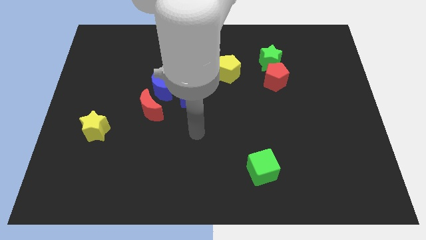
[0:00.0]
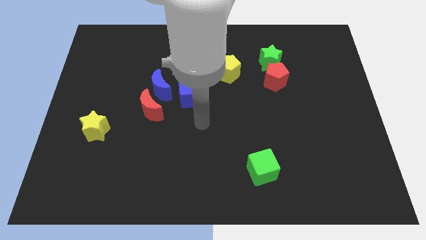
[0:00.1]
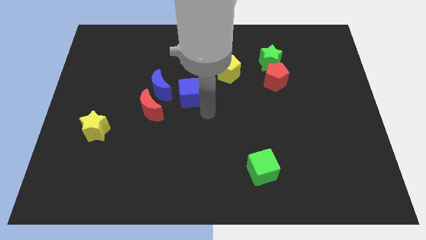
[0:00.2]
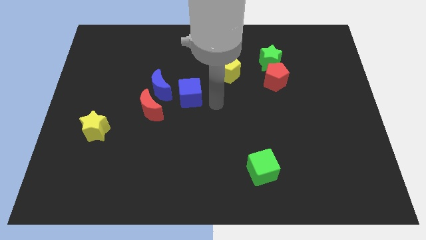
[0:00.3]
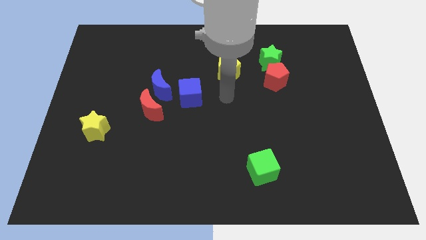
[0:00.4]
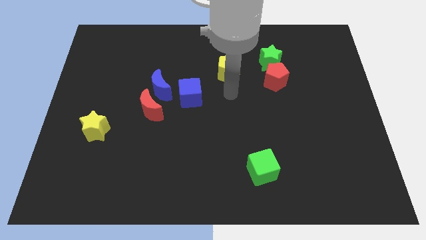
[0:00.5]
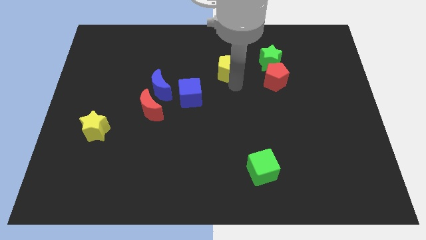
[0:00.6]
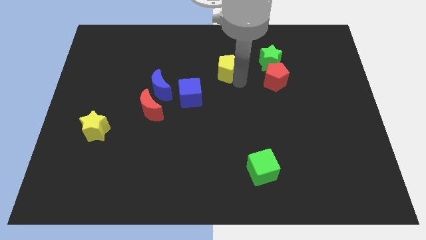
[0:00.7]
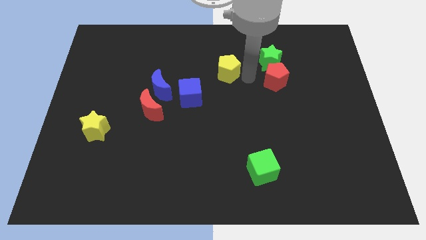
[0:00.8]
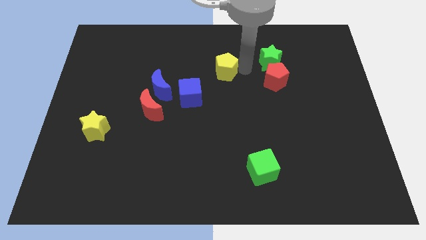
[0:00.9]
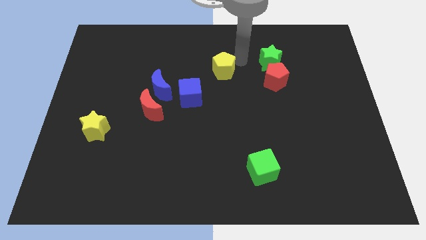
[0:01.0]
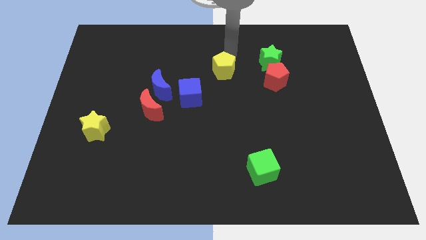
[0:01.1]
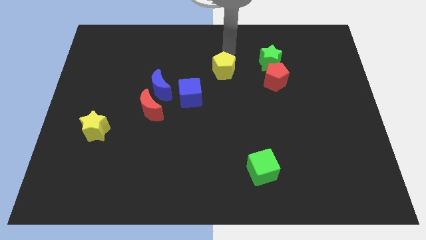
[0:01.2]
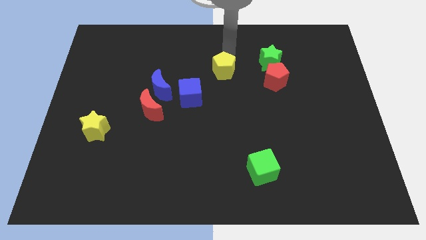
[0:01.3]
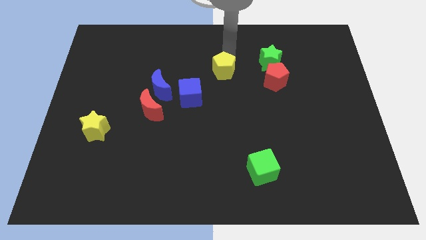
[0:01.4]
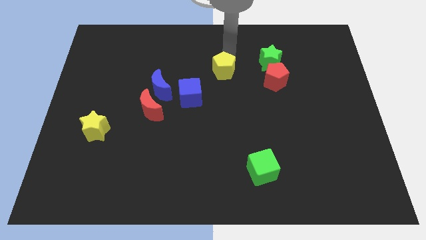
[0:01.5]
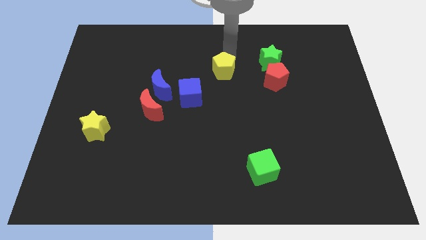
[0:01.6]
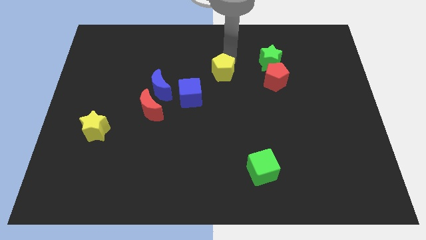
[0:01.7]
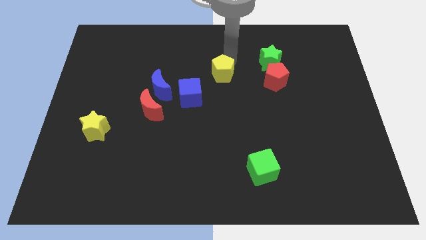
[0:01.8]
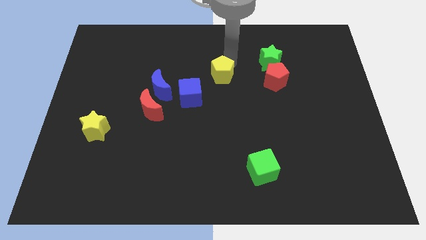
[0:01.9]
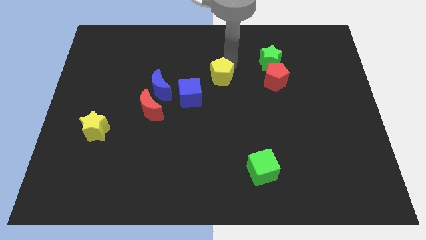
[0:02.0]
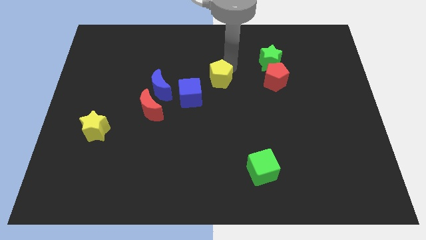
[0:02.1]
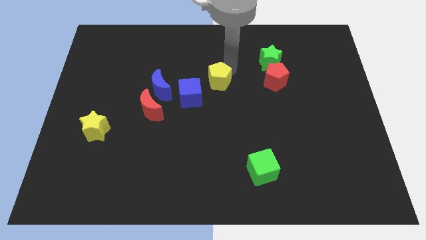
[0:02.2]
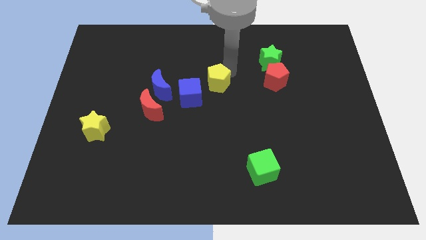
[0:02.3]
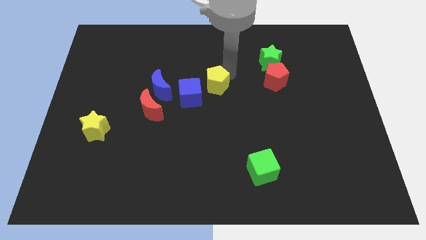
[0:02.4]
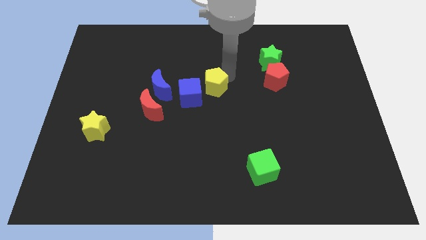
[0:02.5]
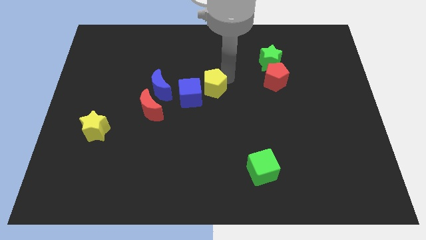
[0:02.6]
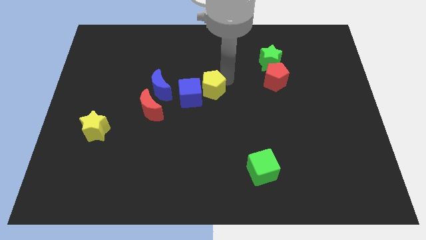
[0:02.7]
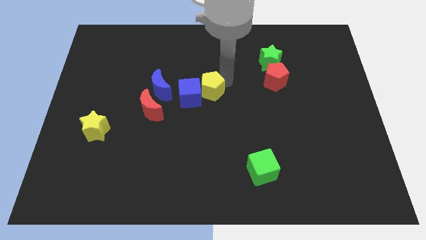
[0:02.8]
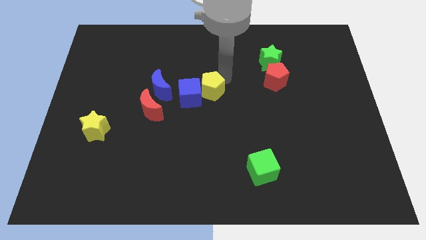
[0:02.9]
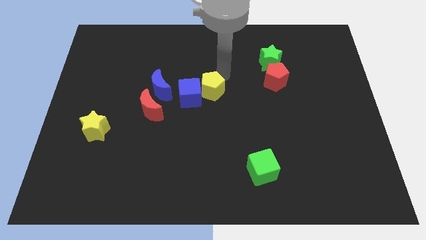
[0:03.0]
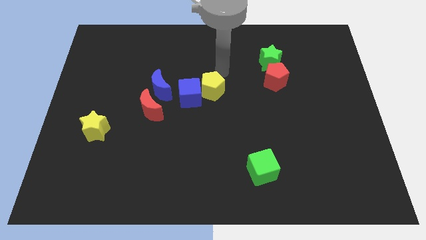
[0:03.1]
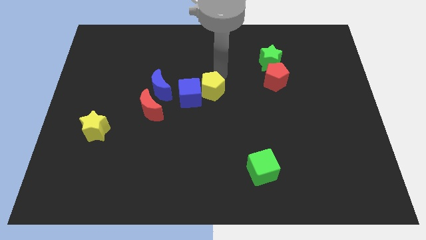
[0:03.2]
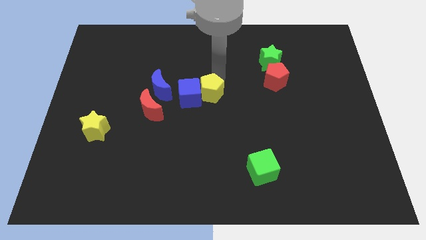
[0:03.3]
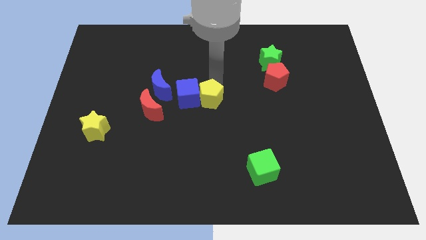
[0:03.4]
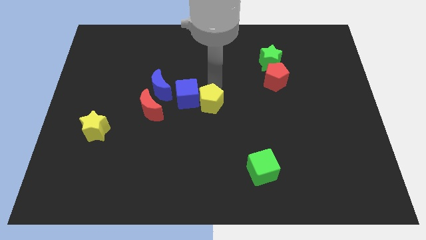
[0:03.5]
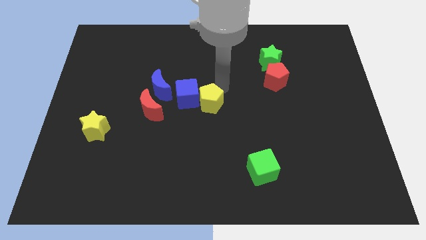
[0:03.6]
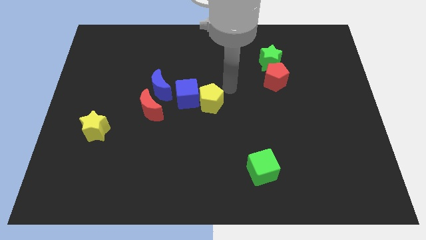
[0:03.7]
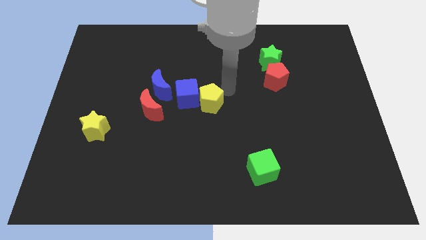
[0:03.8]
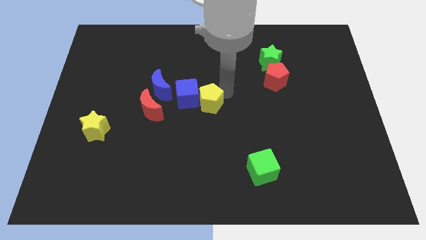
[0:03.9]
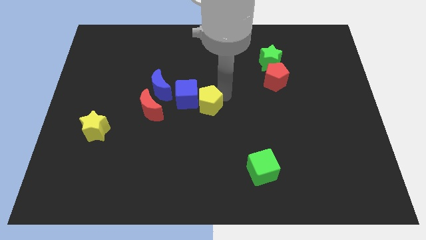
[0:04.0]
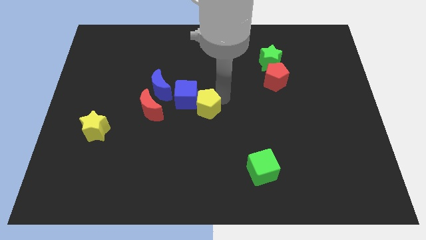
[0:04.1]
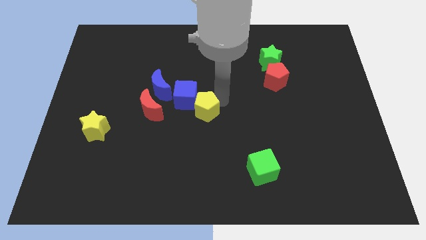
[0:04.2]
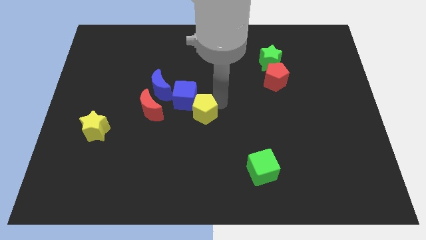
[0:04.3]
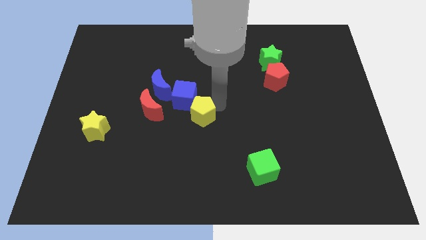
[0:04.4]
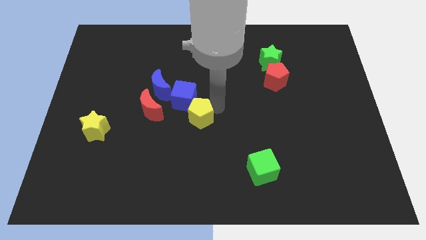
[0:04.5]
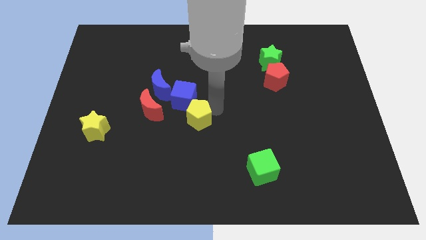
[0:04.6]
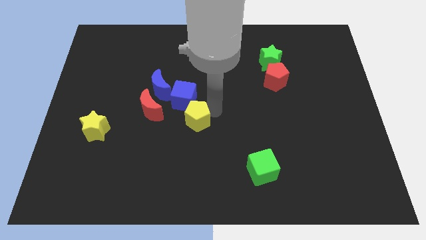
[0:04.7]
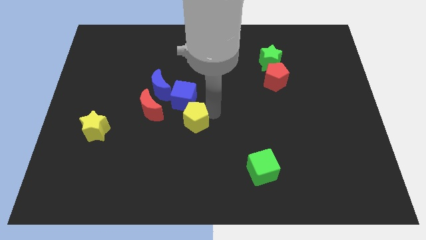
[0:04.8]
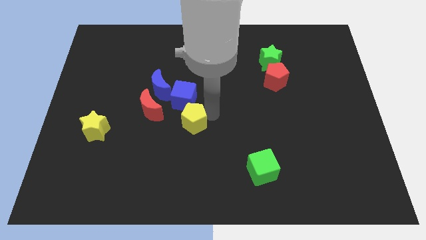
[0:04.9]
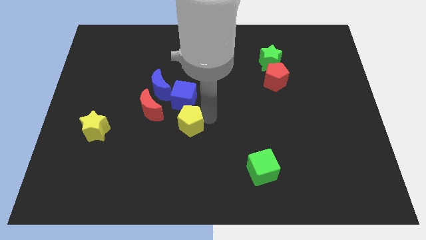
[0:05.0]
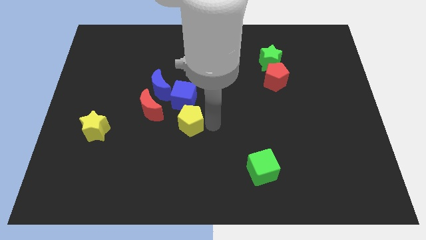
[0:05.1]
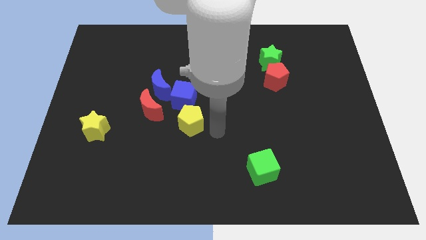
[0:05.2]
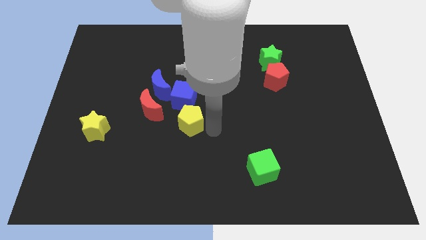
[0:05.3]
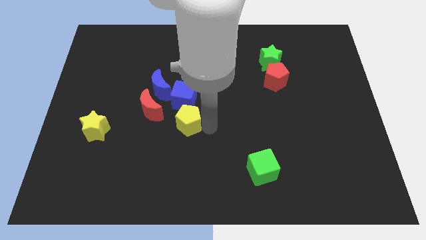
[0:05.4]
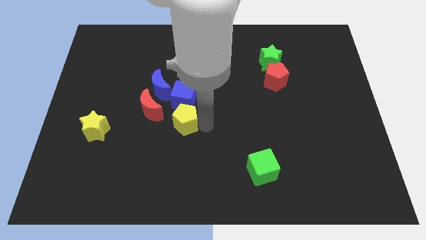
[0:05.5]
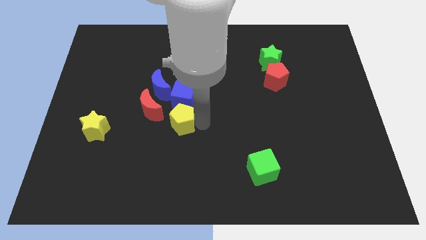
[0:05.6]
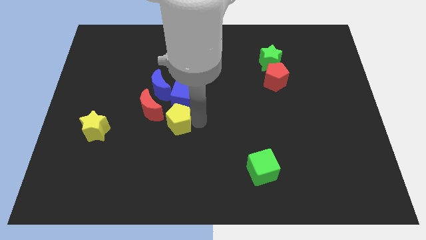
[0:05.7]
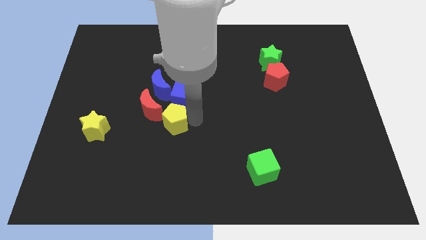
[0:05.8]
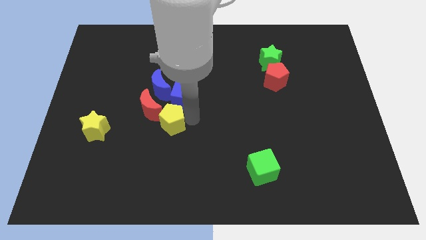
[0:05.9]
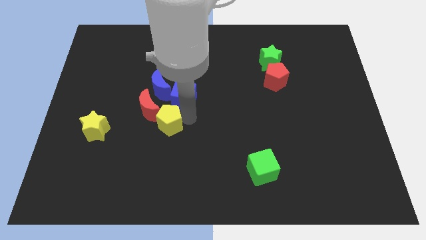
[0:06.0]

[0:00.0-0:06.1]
push the yellow pentagon towards the red moon

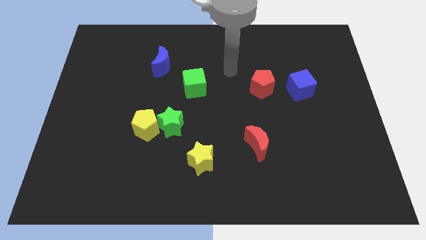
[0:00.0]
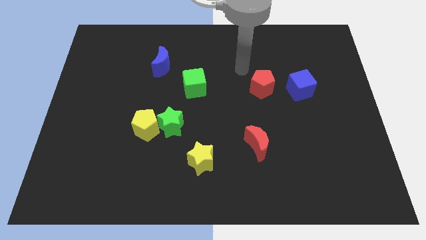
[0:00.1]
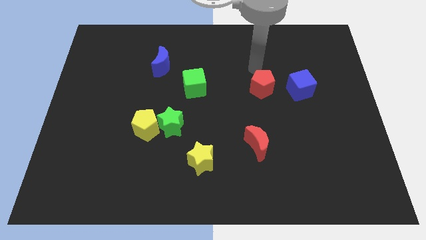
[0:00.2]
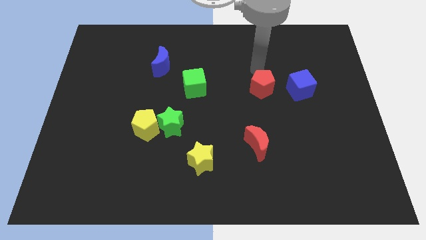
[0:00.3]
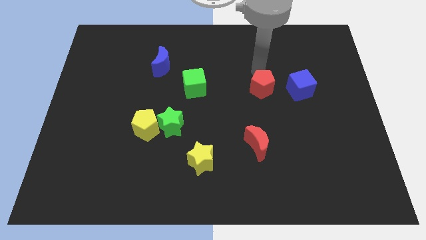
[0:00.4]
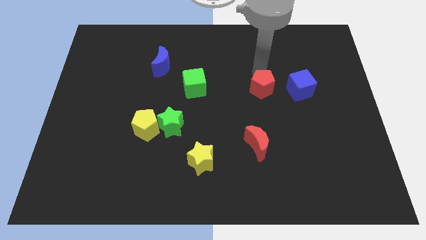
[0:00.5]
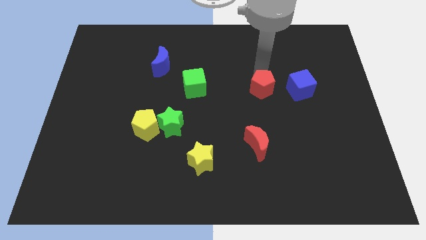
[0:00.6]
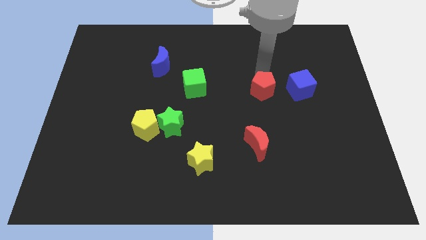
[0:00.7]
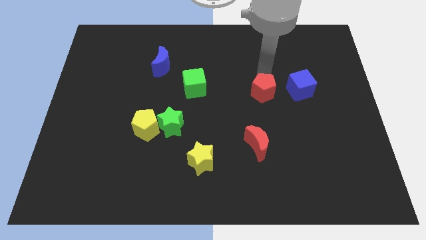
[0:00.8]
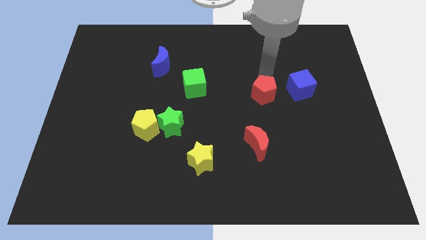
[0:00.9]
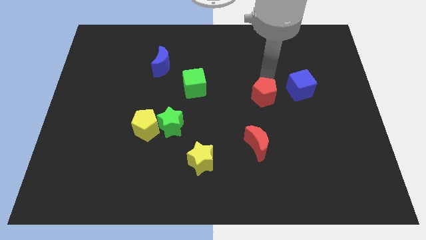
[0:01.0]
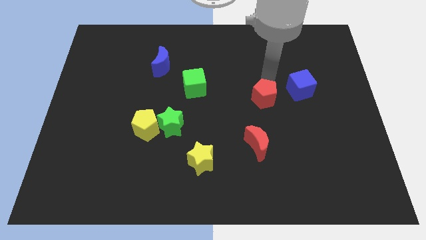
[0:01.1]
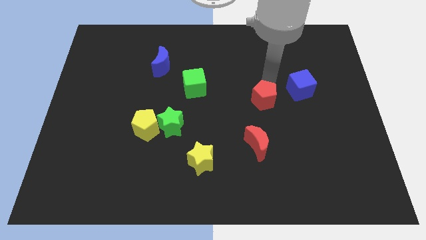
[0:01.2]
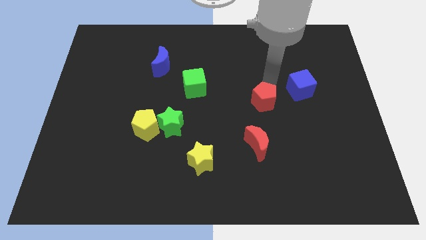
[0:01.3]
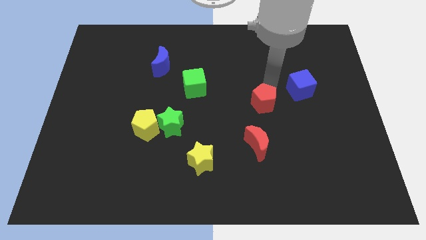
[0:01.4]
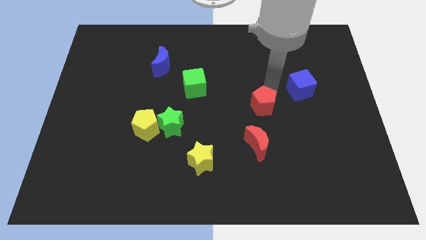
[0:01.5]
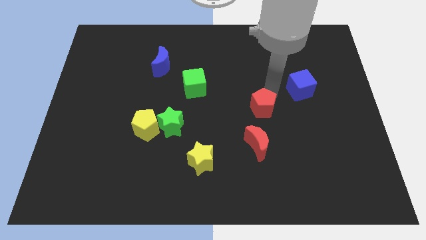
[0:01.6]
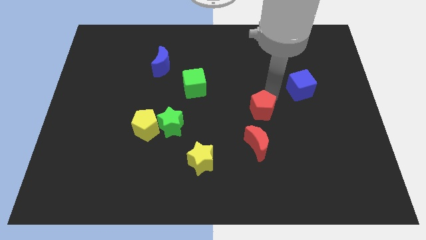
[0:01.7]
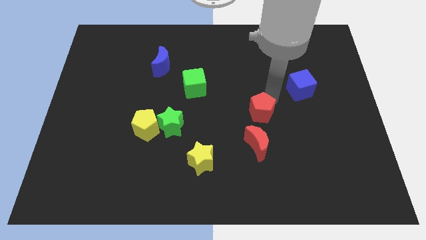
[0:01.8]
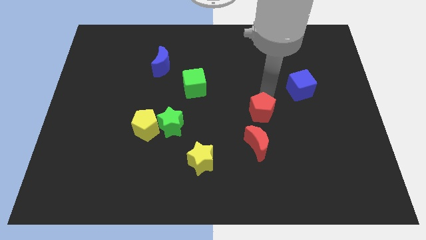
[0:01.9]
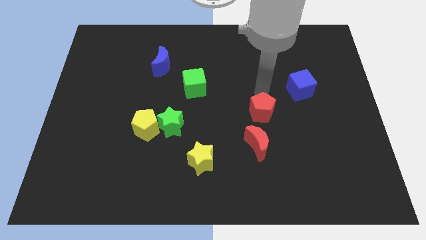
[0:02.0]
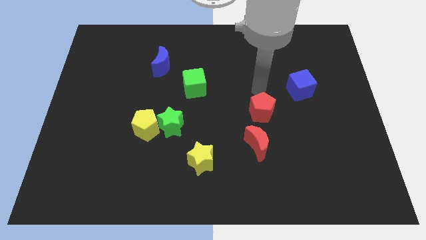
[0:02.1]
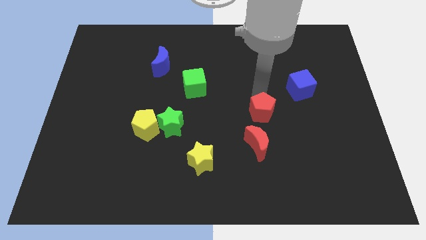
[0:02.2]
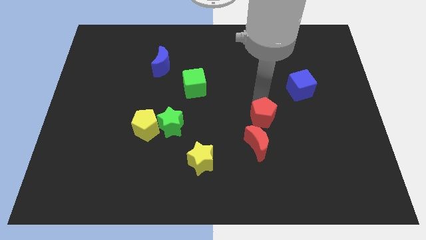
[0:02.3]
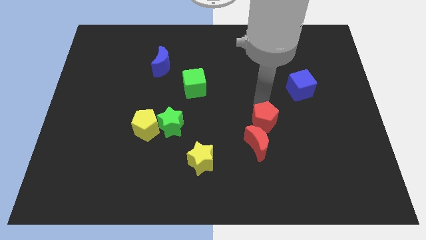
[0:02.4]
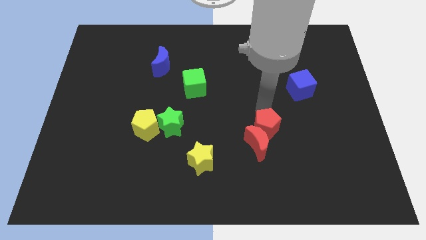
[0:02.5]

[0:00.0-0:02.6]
put the red pentagon towards the red moon
